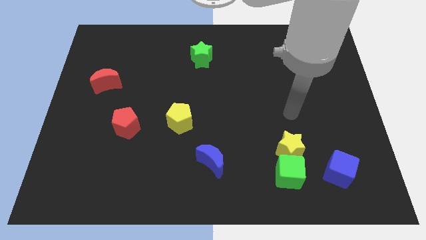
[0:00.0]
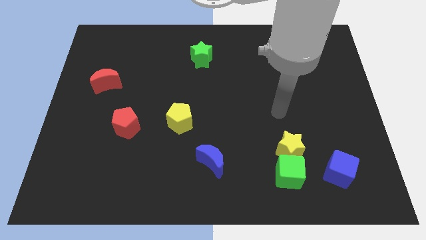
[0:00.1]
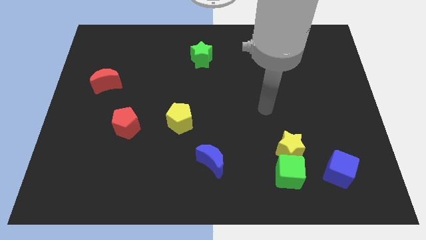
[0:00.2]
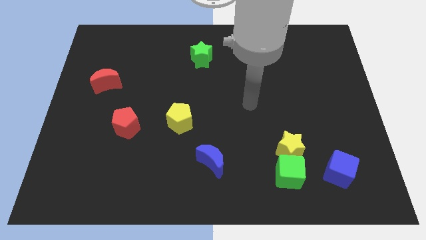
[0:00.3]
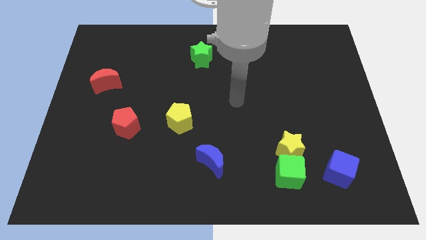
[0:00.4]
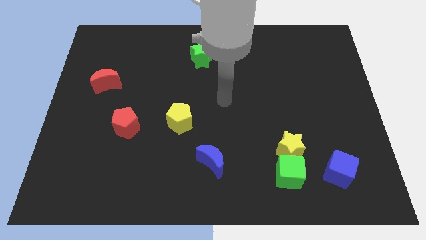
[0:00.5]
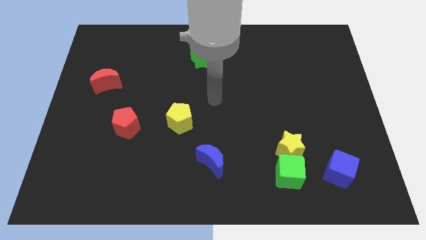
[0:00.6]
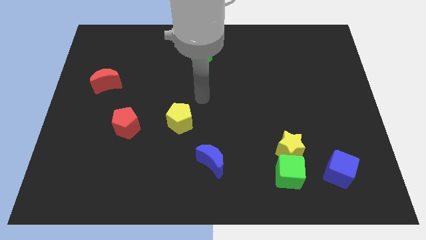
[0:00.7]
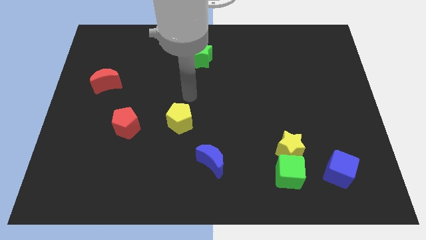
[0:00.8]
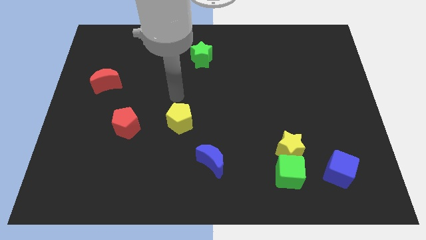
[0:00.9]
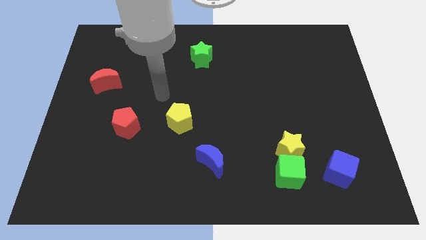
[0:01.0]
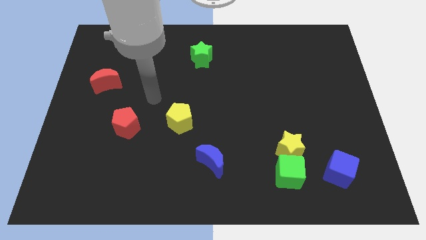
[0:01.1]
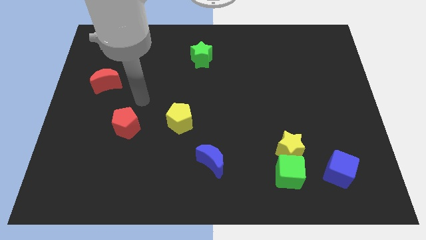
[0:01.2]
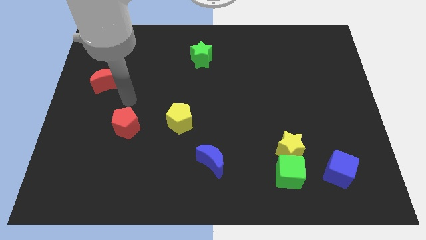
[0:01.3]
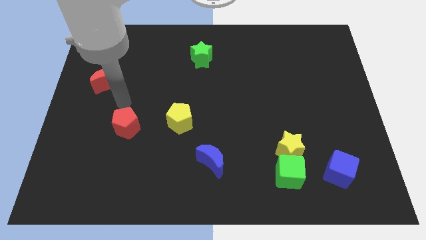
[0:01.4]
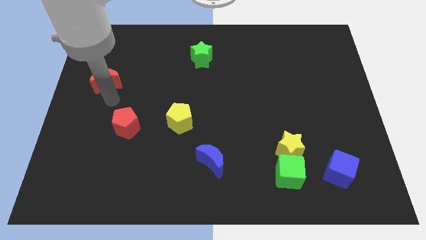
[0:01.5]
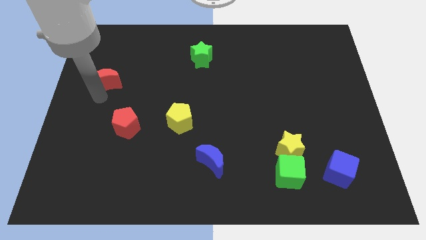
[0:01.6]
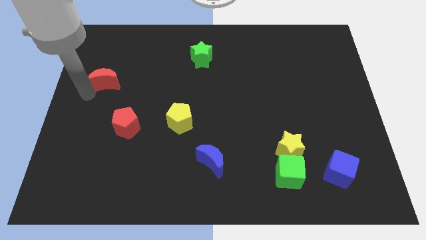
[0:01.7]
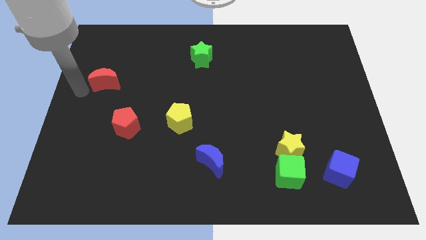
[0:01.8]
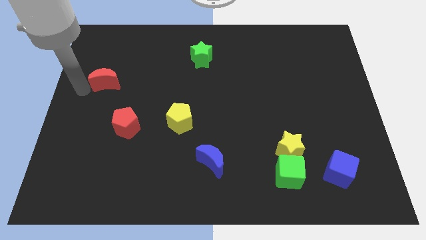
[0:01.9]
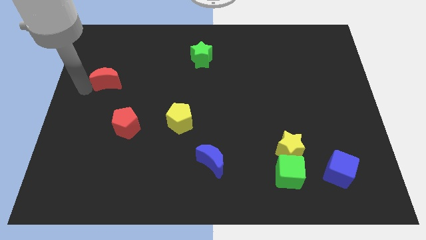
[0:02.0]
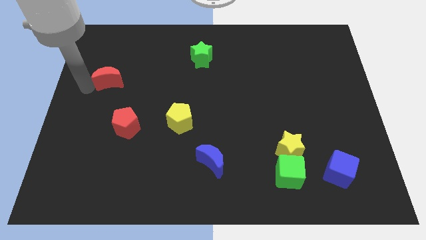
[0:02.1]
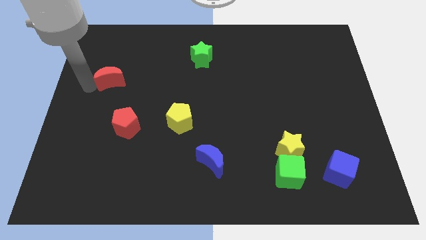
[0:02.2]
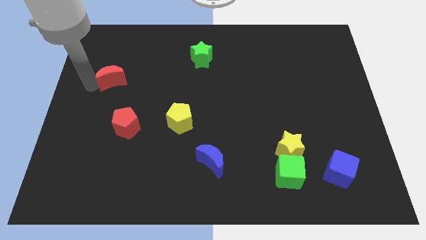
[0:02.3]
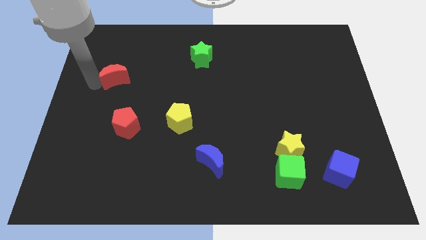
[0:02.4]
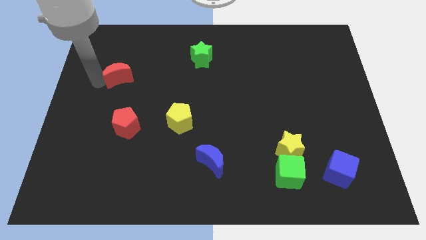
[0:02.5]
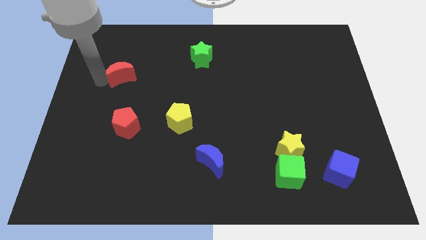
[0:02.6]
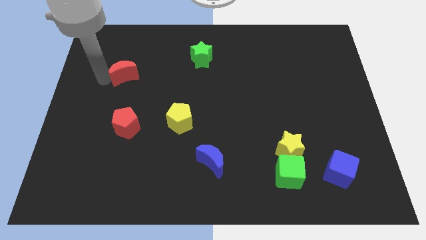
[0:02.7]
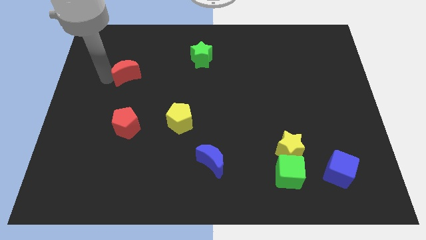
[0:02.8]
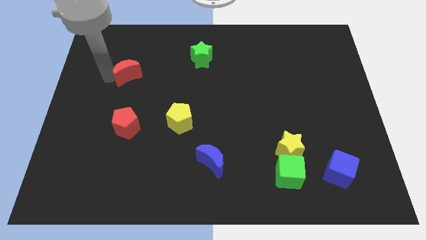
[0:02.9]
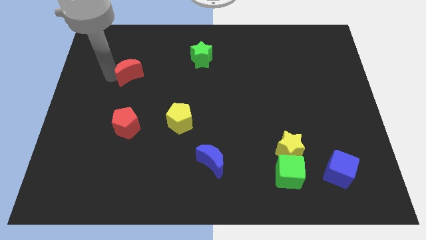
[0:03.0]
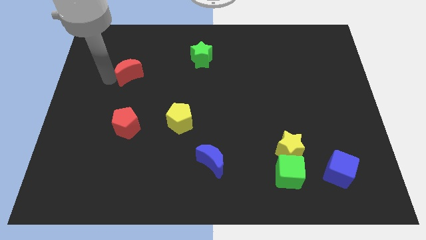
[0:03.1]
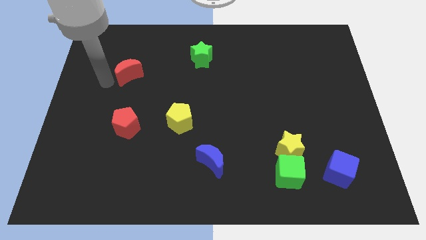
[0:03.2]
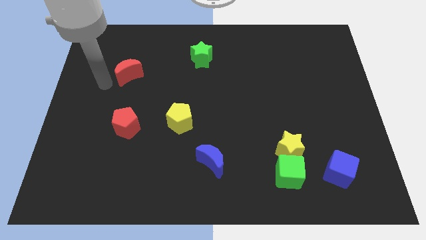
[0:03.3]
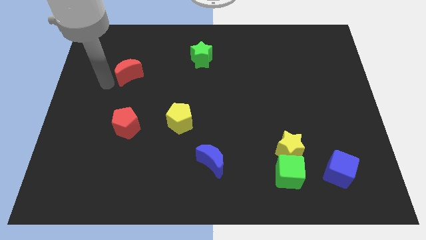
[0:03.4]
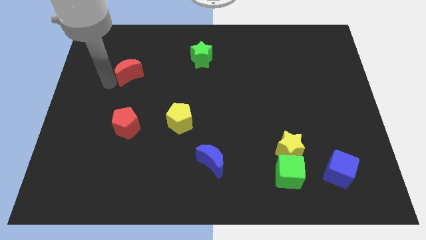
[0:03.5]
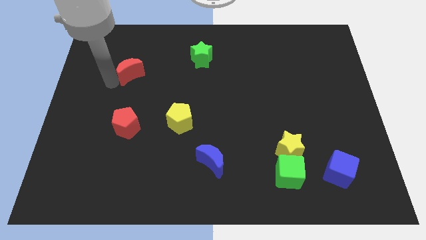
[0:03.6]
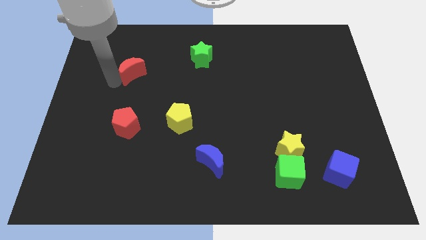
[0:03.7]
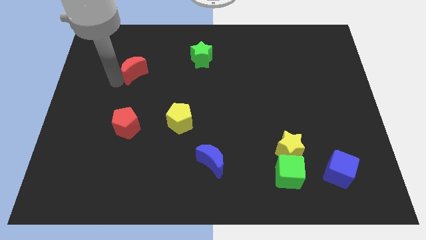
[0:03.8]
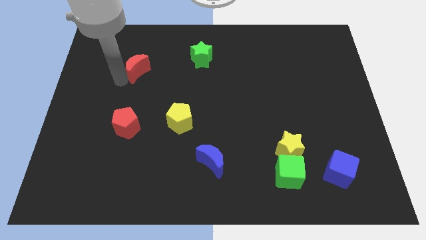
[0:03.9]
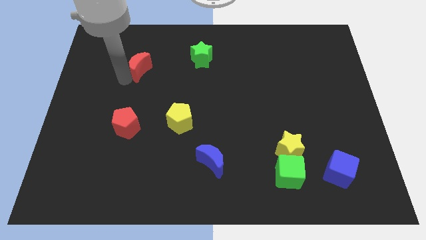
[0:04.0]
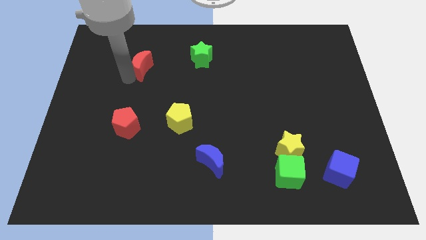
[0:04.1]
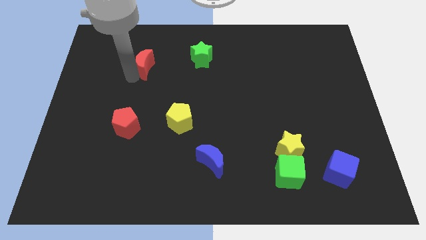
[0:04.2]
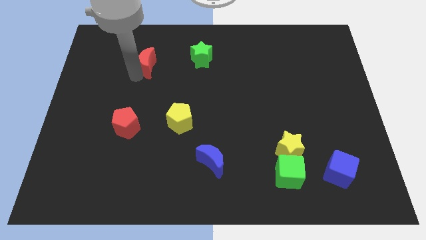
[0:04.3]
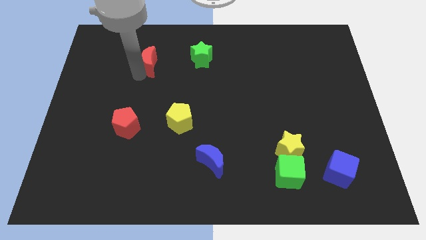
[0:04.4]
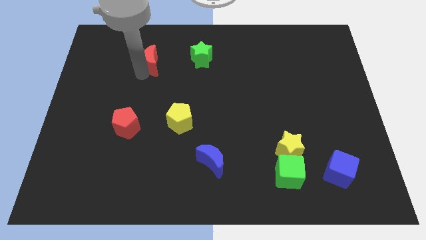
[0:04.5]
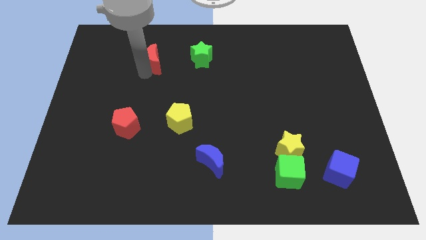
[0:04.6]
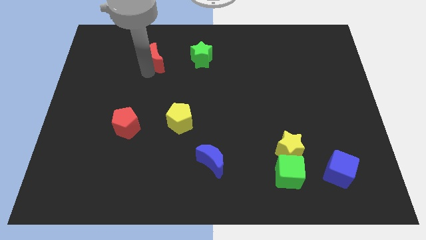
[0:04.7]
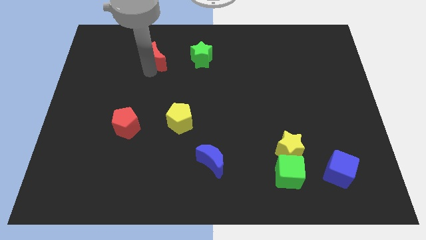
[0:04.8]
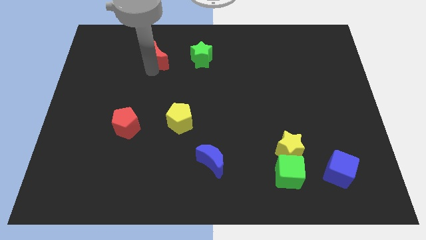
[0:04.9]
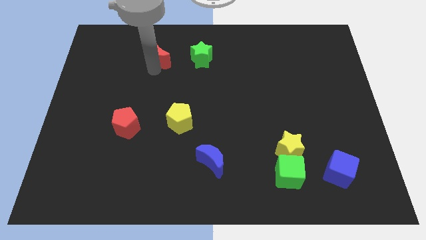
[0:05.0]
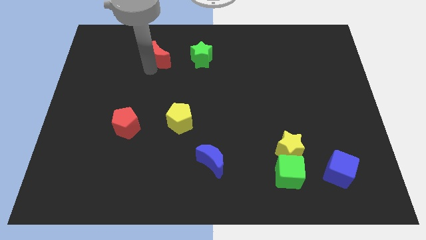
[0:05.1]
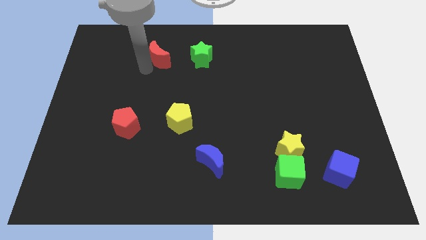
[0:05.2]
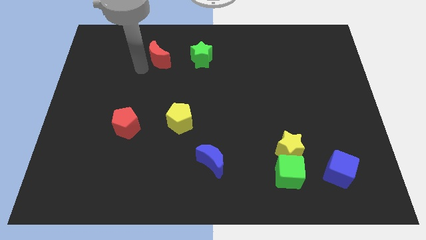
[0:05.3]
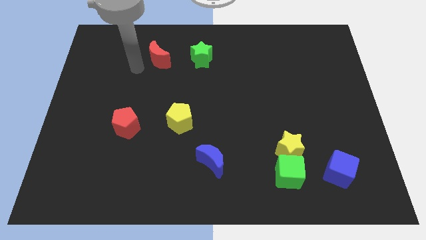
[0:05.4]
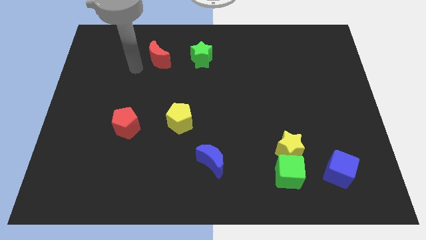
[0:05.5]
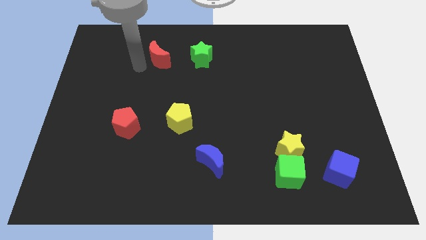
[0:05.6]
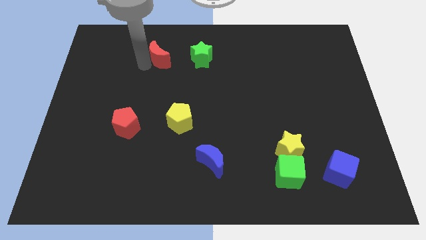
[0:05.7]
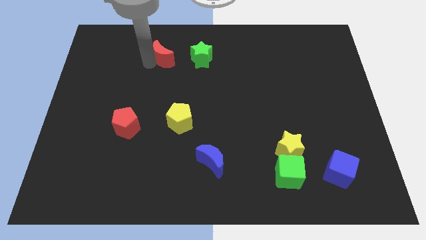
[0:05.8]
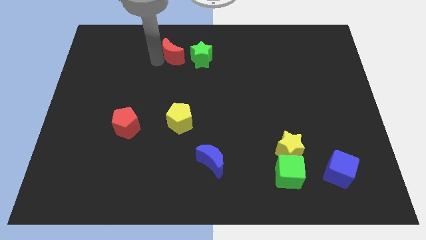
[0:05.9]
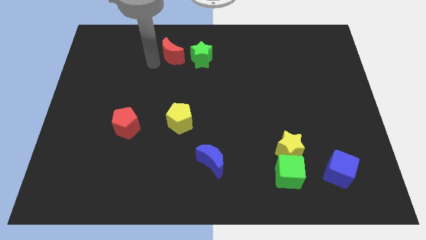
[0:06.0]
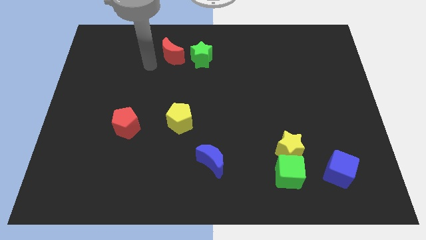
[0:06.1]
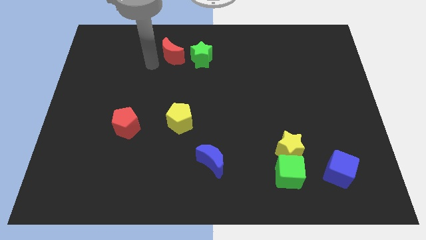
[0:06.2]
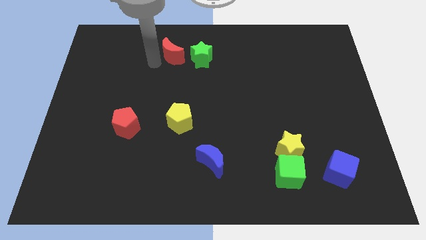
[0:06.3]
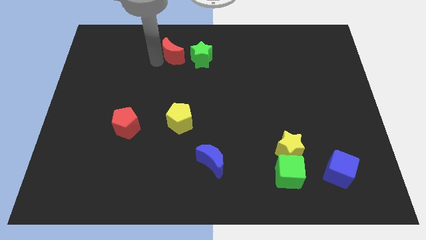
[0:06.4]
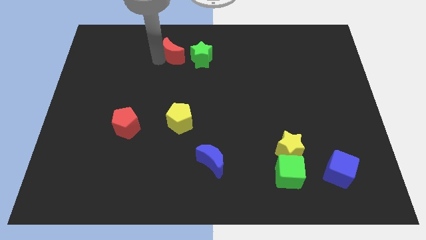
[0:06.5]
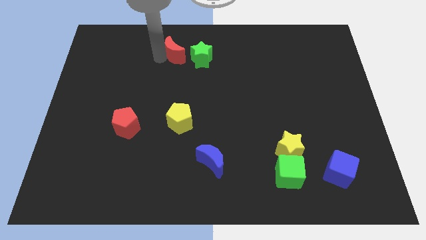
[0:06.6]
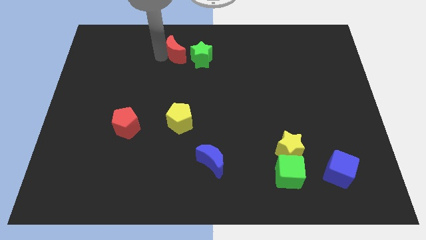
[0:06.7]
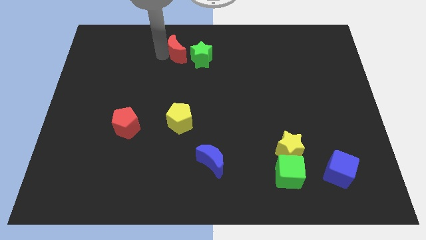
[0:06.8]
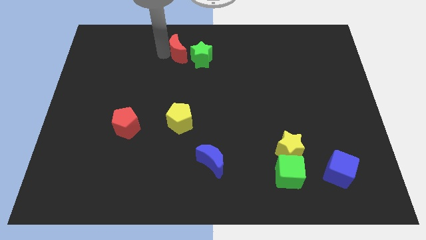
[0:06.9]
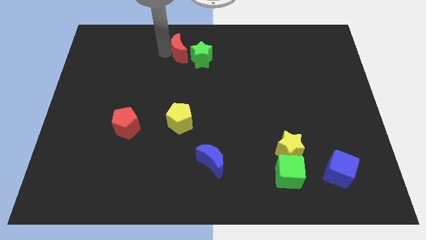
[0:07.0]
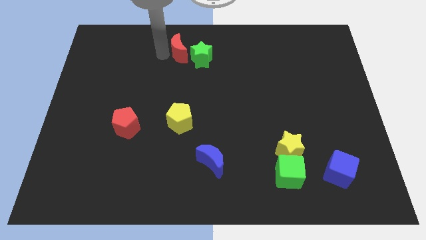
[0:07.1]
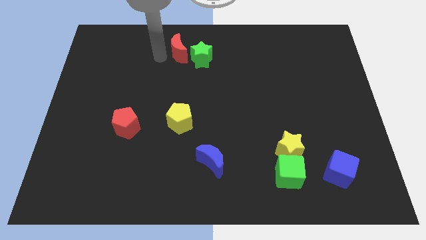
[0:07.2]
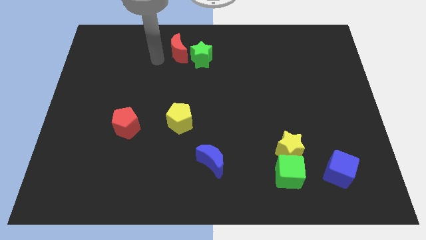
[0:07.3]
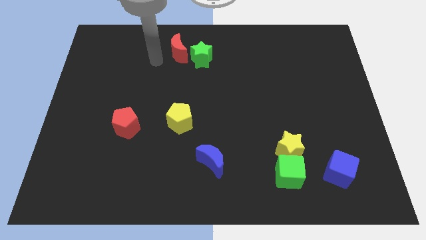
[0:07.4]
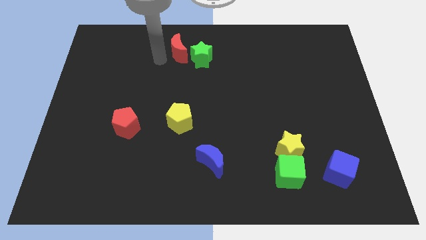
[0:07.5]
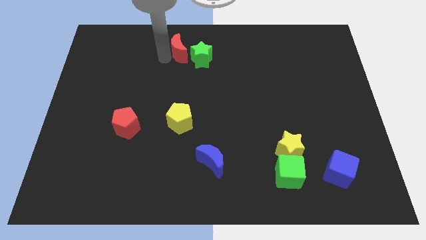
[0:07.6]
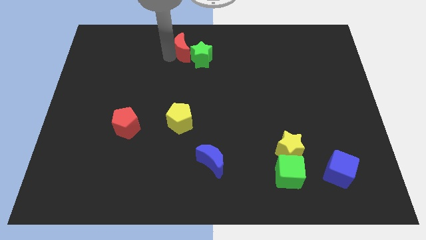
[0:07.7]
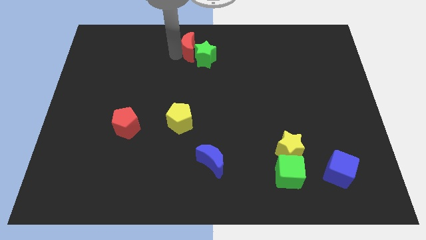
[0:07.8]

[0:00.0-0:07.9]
slide the red moon to the towards your base

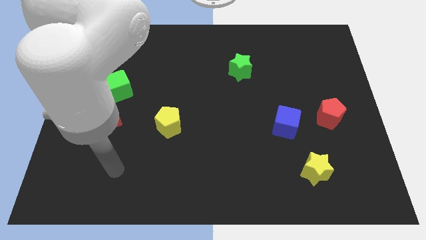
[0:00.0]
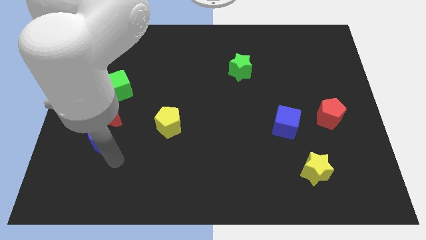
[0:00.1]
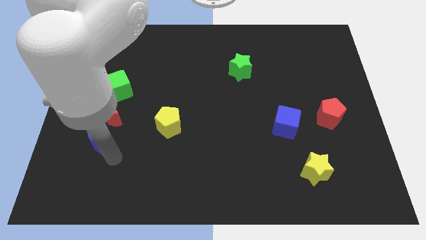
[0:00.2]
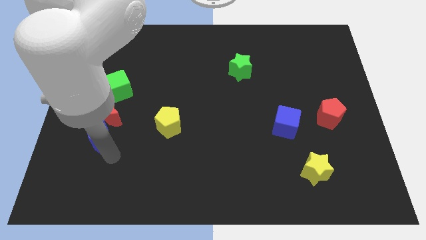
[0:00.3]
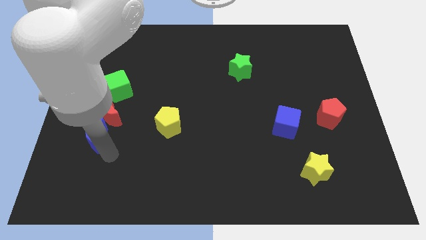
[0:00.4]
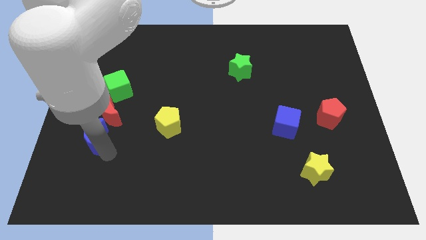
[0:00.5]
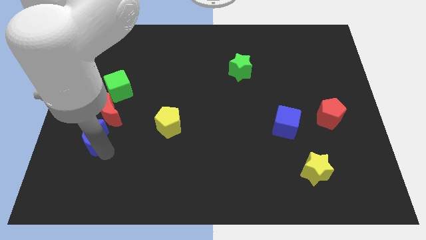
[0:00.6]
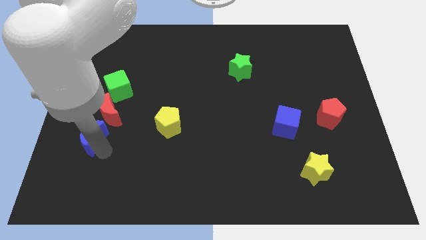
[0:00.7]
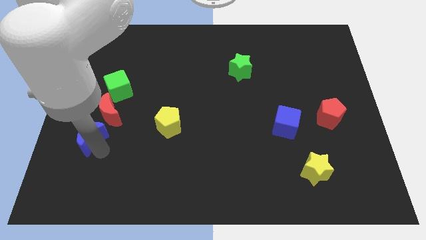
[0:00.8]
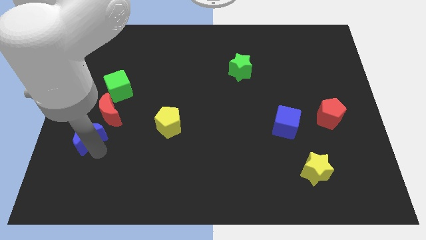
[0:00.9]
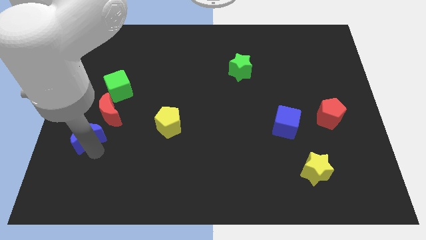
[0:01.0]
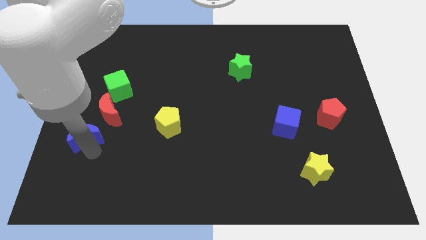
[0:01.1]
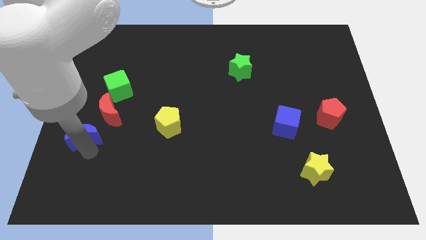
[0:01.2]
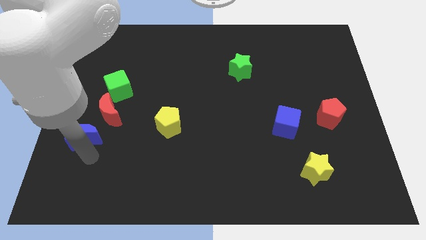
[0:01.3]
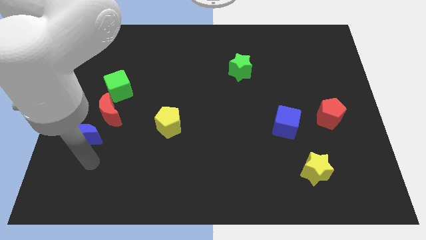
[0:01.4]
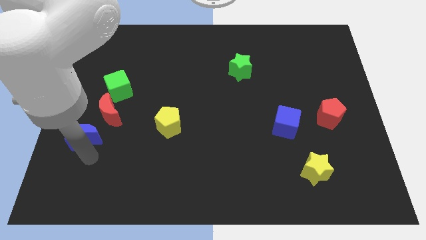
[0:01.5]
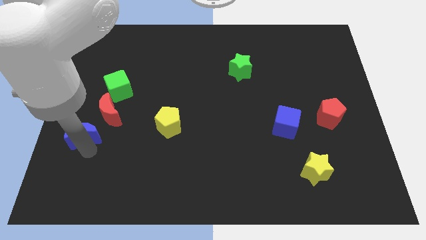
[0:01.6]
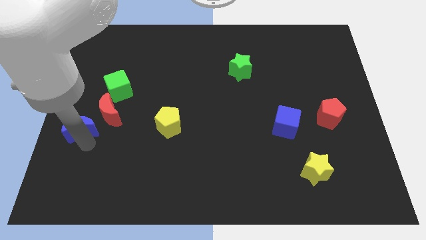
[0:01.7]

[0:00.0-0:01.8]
put the blue moon to the left side of the board
